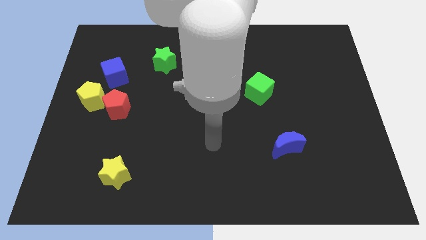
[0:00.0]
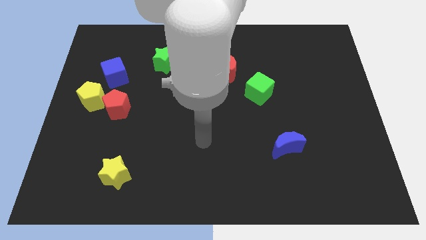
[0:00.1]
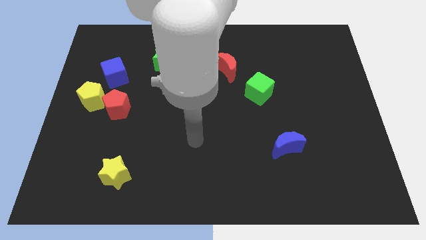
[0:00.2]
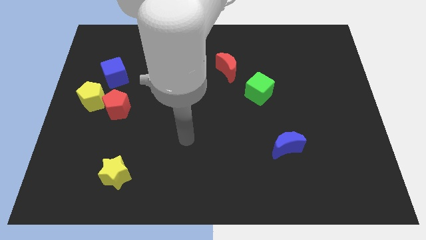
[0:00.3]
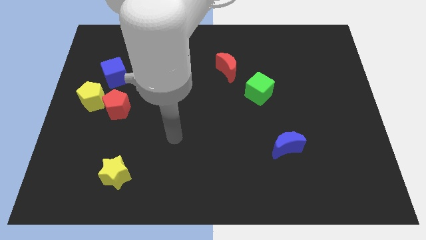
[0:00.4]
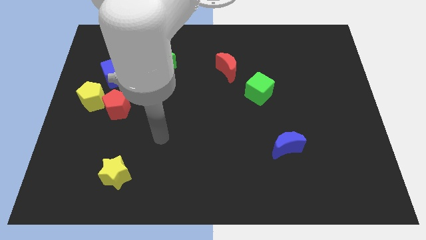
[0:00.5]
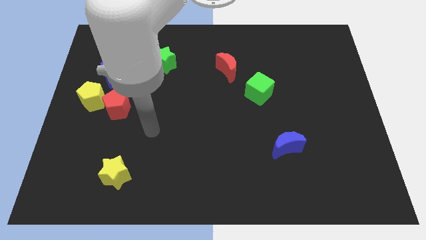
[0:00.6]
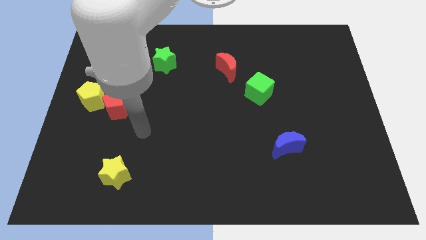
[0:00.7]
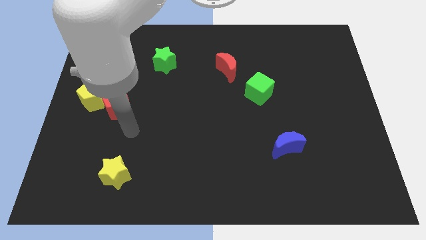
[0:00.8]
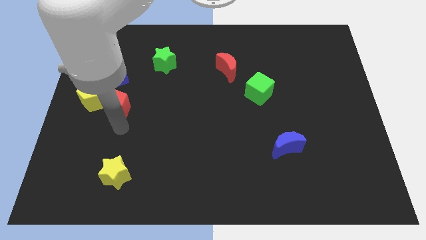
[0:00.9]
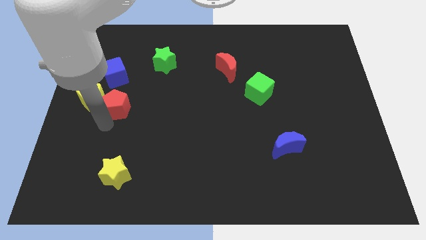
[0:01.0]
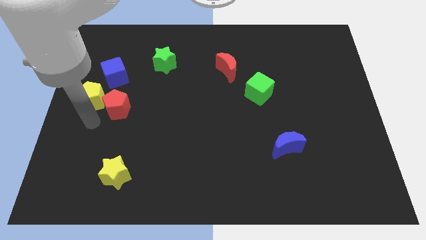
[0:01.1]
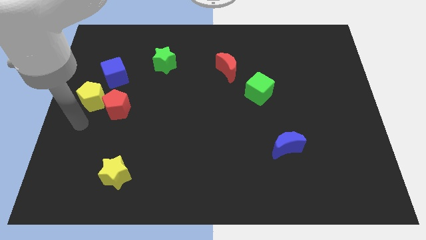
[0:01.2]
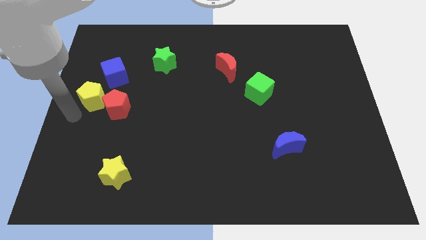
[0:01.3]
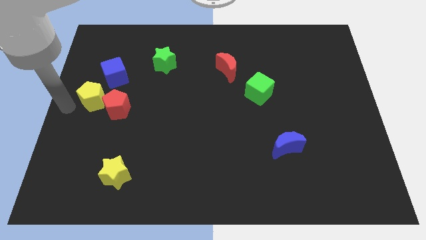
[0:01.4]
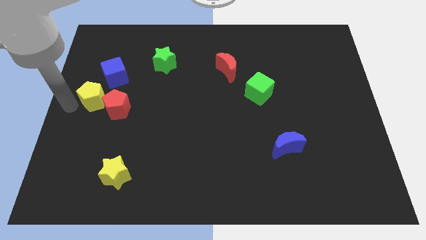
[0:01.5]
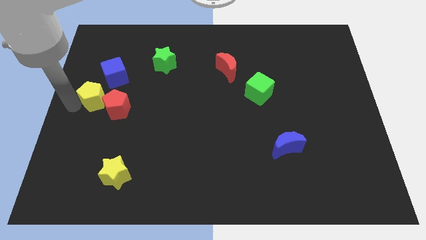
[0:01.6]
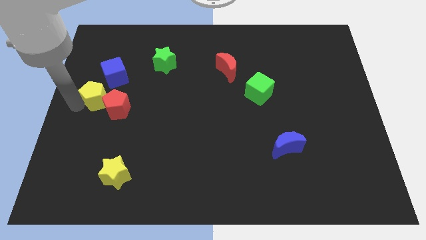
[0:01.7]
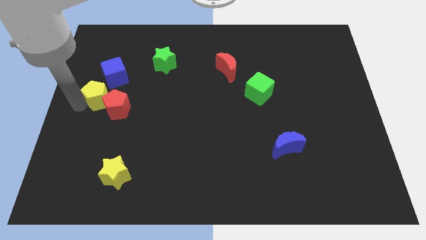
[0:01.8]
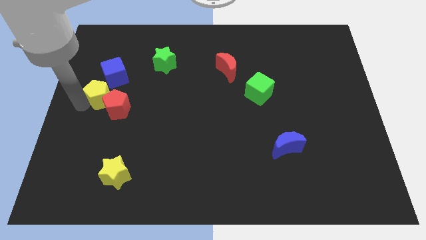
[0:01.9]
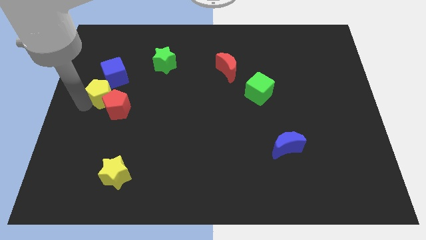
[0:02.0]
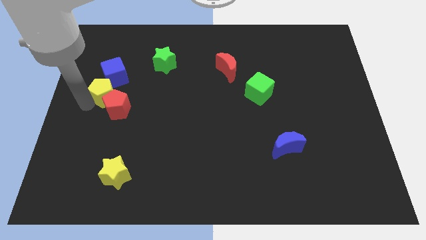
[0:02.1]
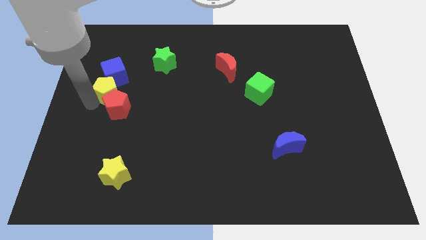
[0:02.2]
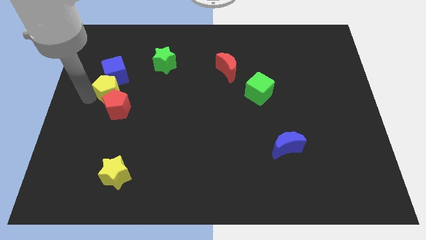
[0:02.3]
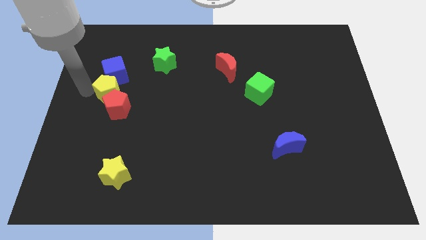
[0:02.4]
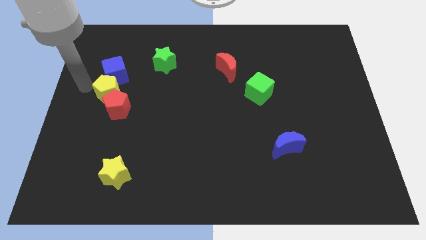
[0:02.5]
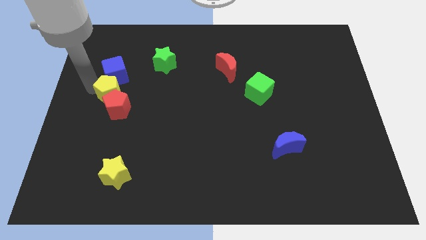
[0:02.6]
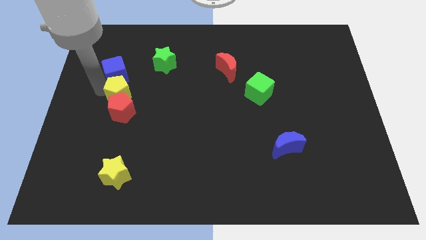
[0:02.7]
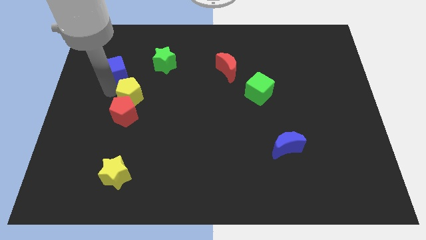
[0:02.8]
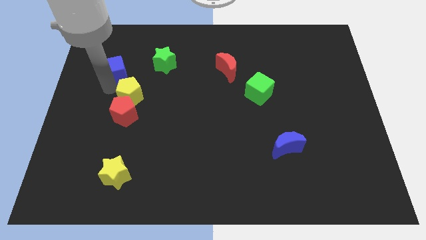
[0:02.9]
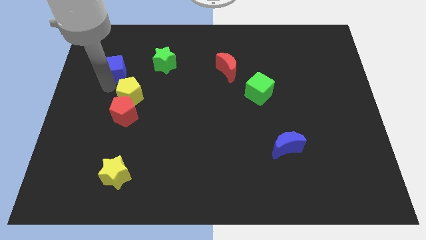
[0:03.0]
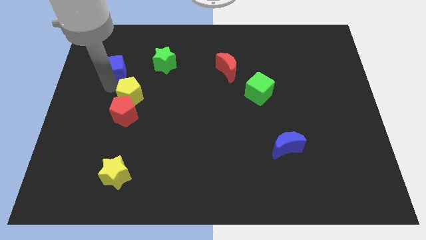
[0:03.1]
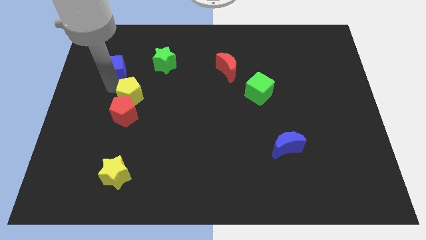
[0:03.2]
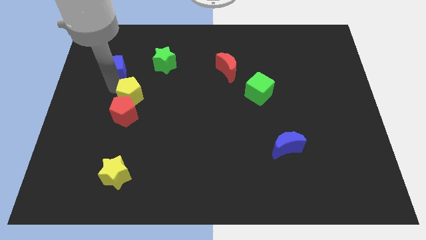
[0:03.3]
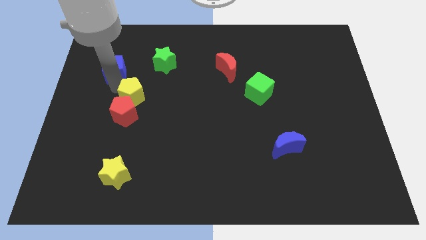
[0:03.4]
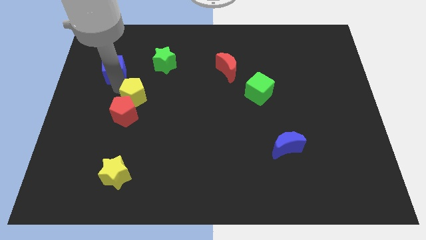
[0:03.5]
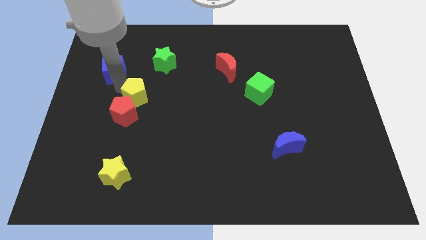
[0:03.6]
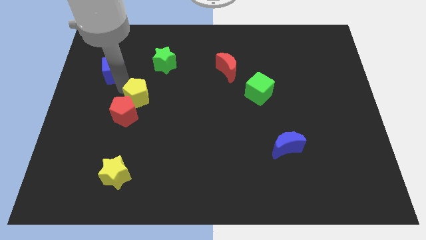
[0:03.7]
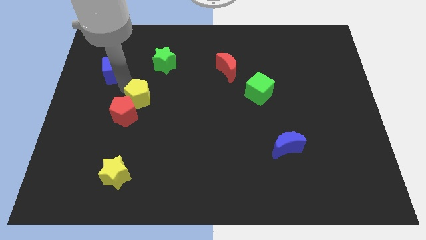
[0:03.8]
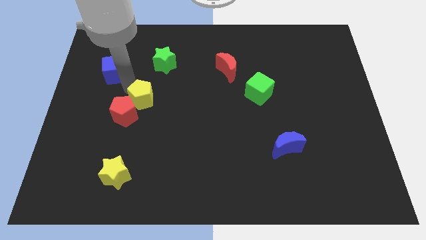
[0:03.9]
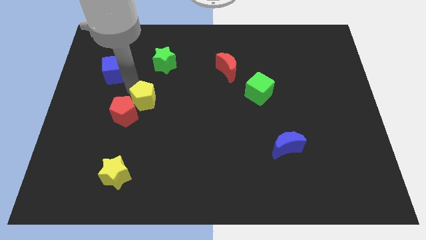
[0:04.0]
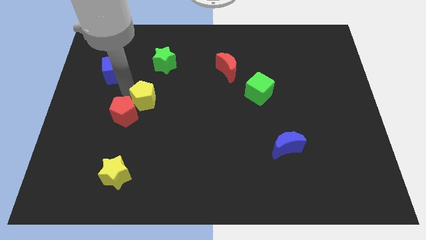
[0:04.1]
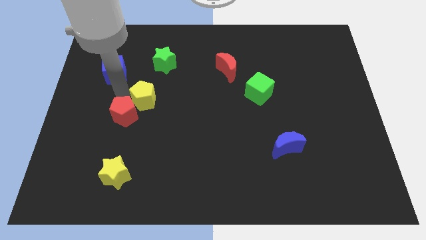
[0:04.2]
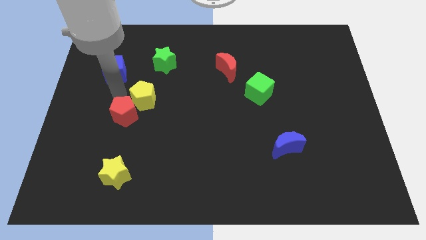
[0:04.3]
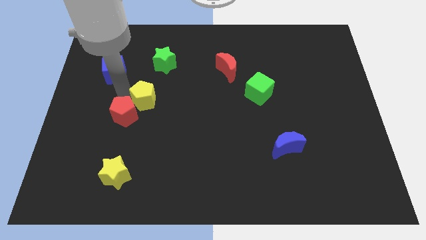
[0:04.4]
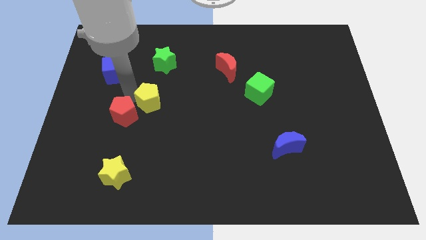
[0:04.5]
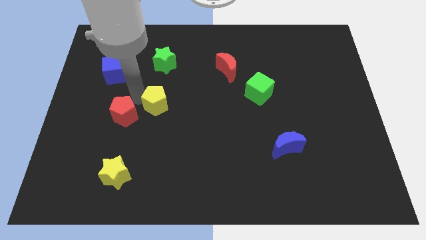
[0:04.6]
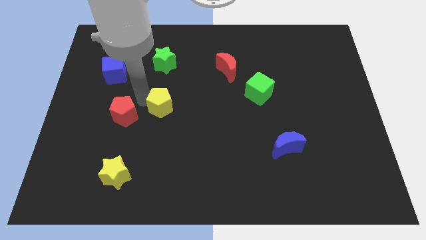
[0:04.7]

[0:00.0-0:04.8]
move the yellow pentagon to the center

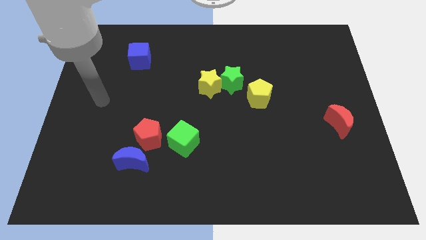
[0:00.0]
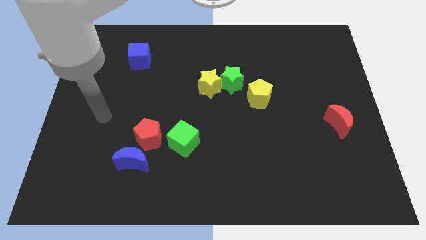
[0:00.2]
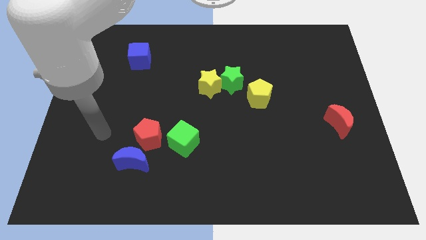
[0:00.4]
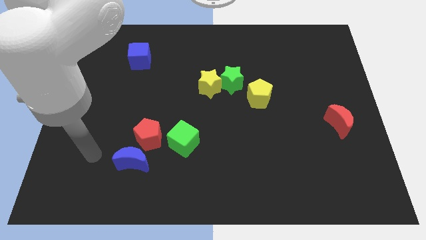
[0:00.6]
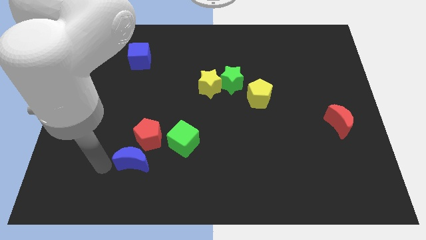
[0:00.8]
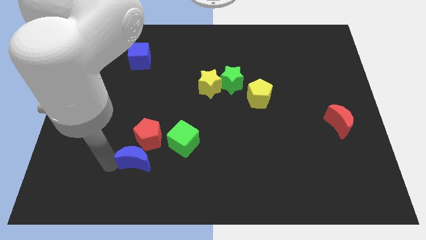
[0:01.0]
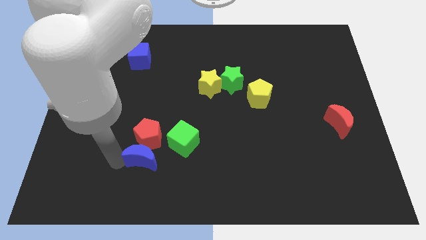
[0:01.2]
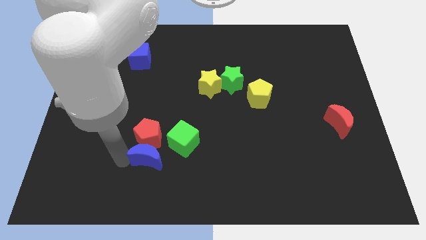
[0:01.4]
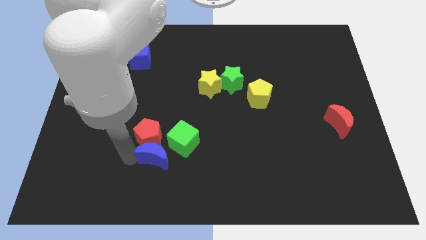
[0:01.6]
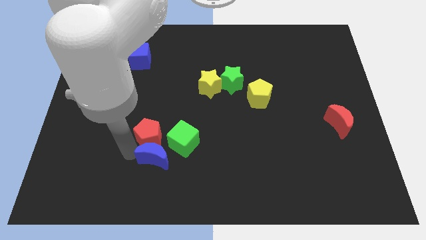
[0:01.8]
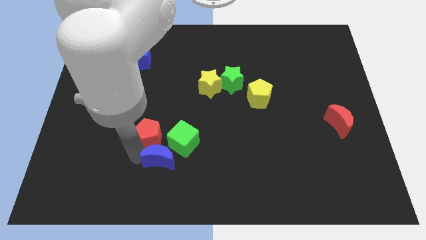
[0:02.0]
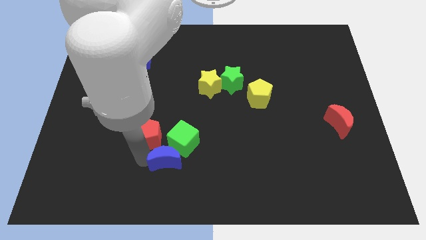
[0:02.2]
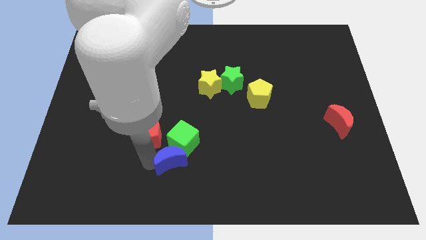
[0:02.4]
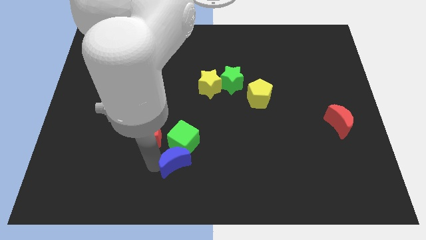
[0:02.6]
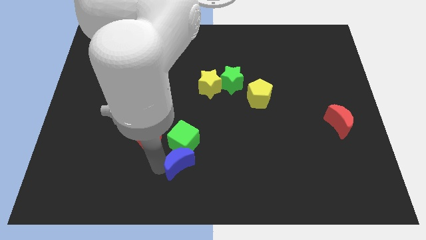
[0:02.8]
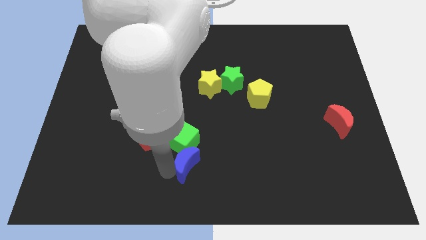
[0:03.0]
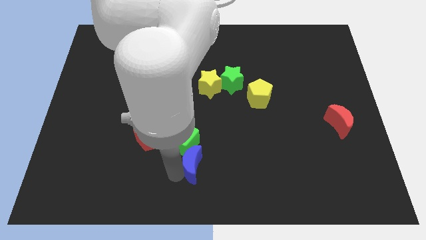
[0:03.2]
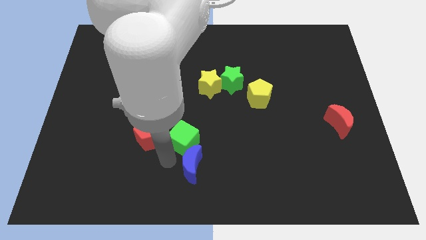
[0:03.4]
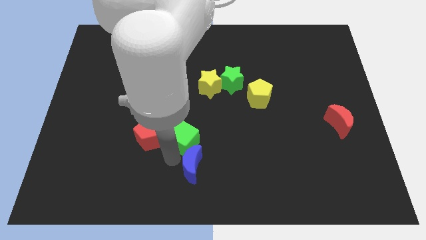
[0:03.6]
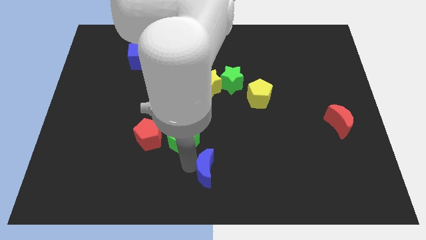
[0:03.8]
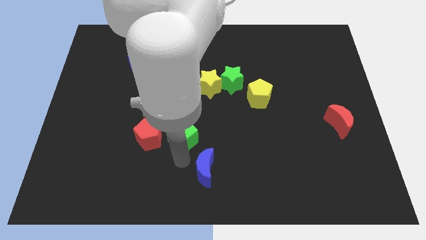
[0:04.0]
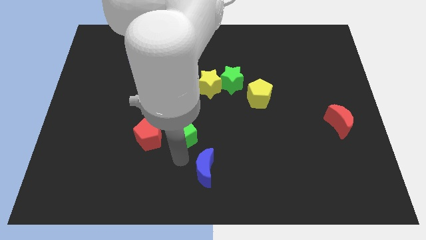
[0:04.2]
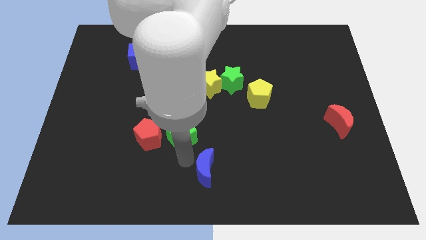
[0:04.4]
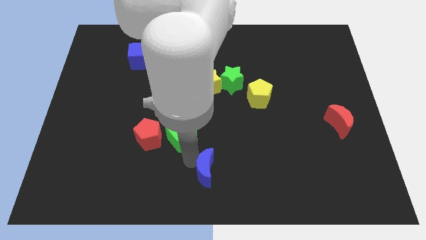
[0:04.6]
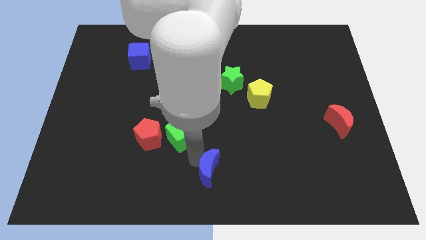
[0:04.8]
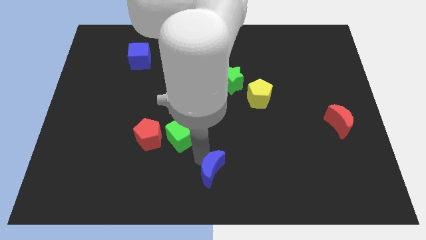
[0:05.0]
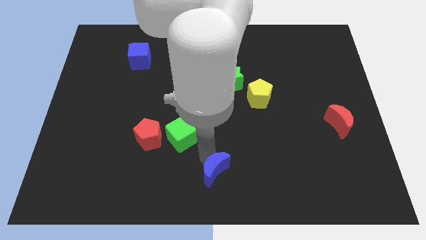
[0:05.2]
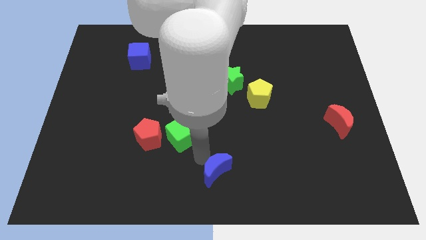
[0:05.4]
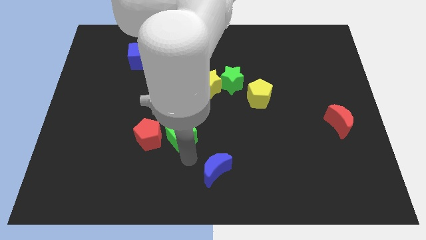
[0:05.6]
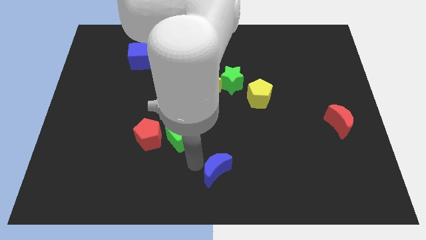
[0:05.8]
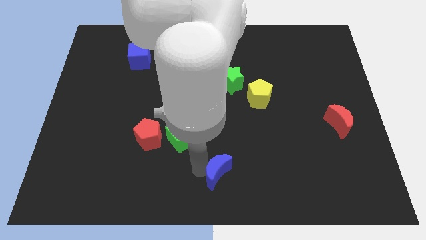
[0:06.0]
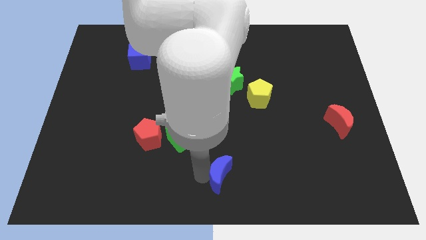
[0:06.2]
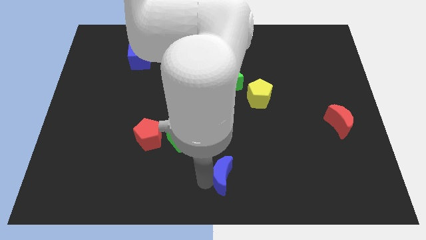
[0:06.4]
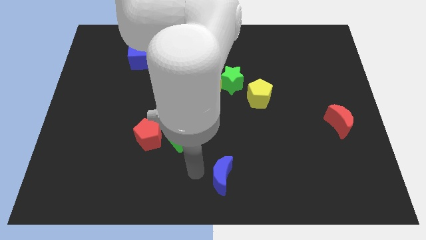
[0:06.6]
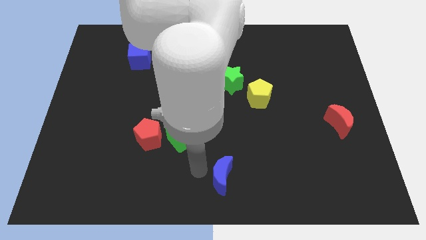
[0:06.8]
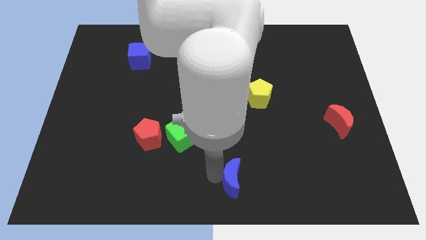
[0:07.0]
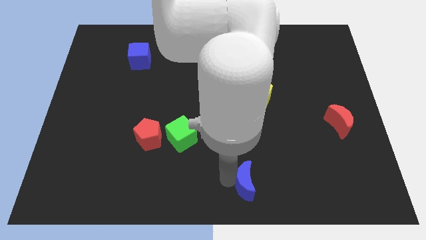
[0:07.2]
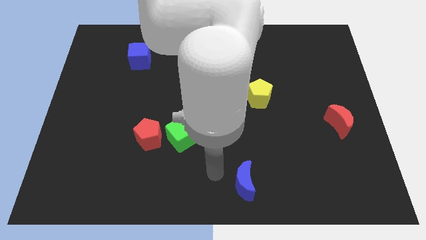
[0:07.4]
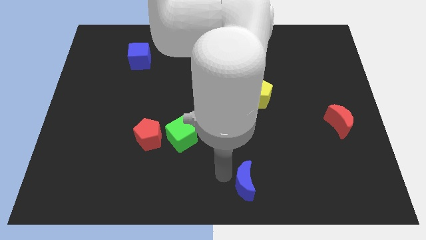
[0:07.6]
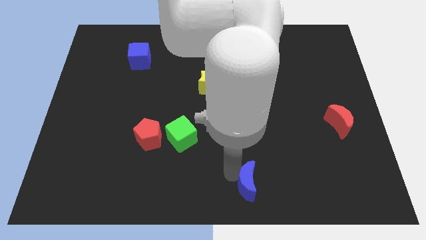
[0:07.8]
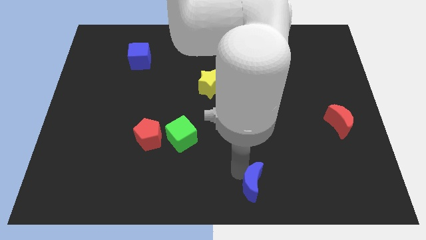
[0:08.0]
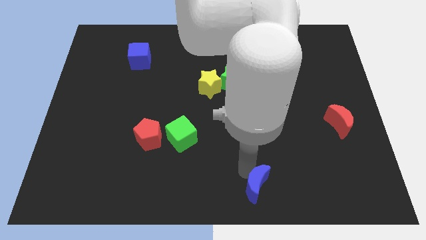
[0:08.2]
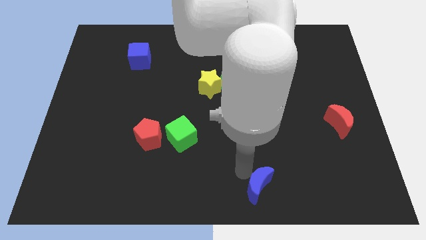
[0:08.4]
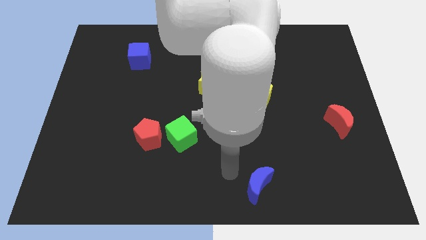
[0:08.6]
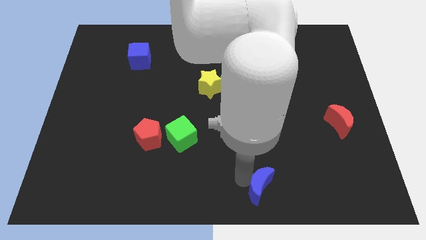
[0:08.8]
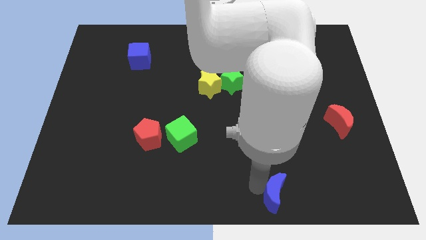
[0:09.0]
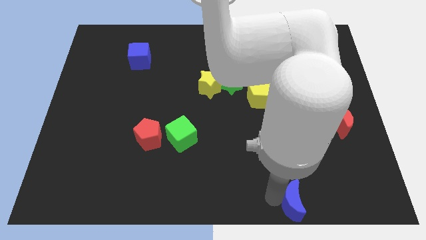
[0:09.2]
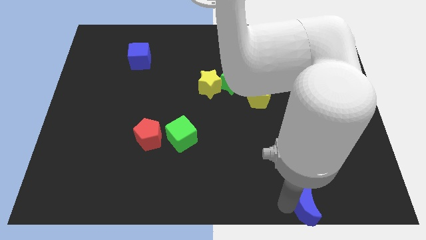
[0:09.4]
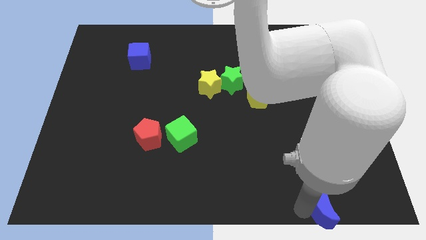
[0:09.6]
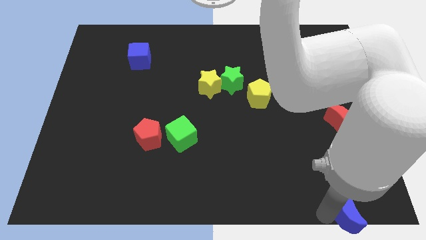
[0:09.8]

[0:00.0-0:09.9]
move the blue moon to the lower right corner
